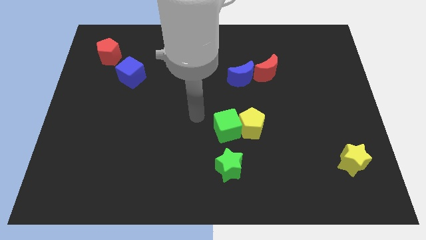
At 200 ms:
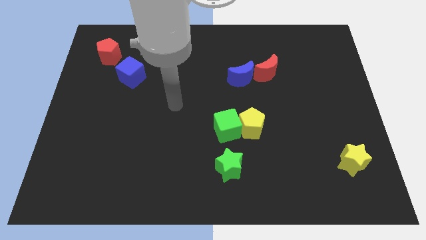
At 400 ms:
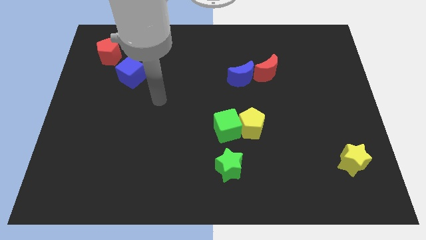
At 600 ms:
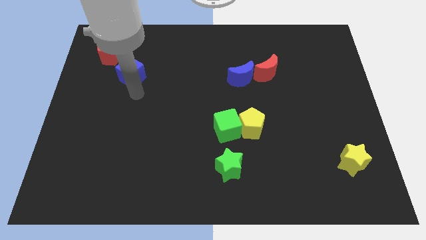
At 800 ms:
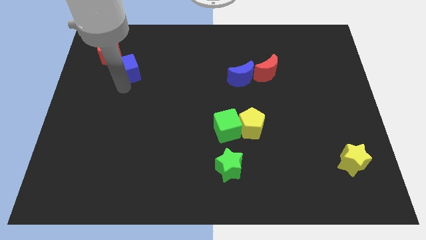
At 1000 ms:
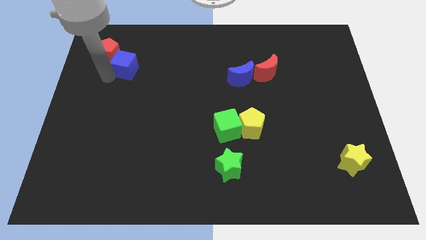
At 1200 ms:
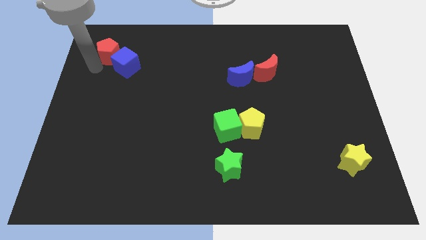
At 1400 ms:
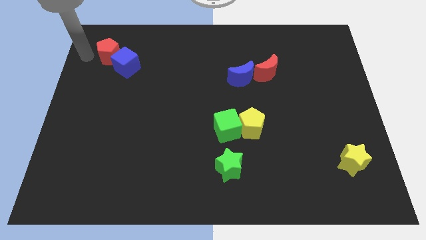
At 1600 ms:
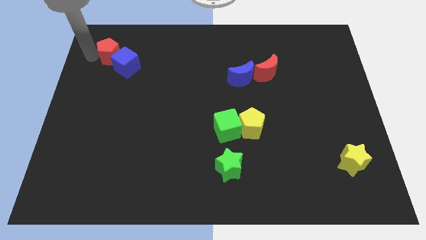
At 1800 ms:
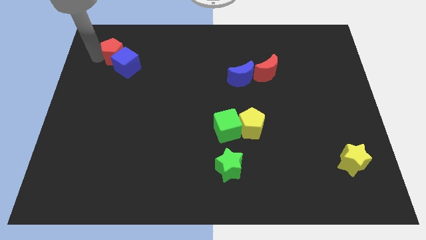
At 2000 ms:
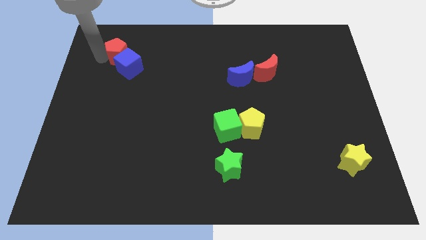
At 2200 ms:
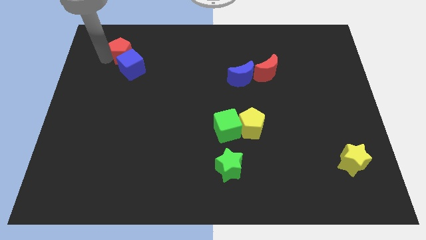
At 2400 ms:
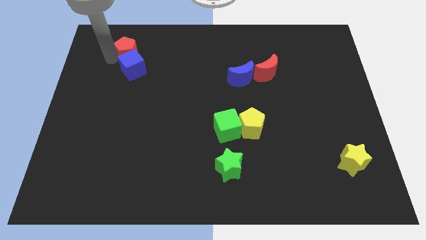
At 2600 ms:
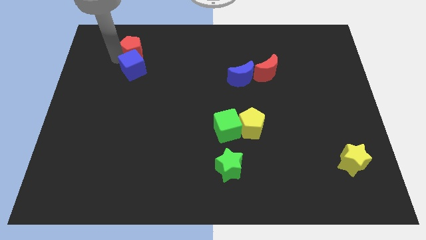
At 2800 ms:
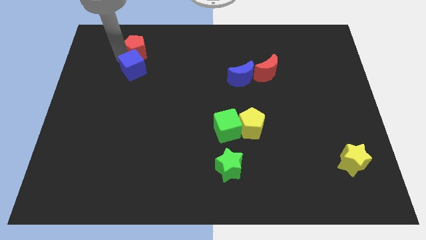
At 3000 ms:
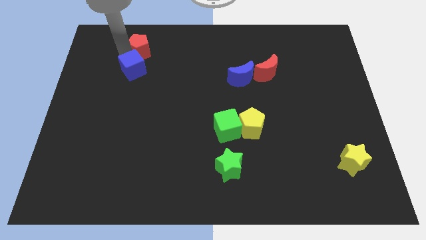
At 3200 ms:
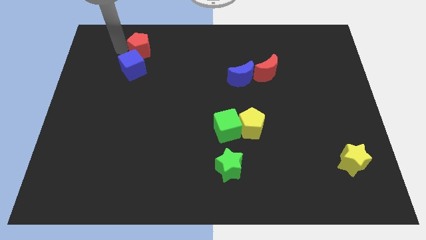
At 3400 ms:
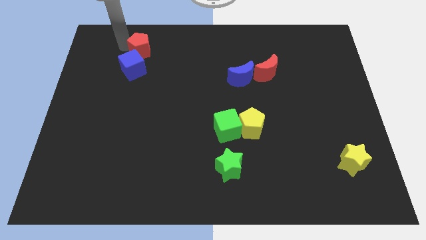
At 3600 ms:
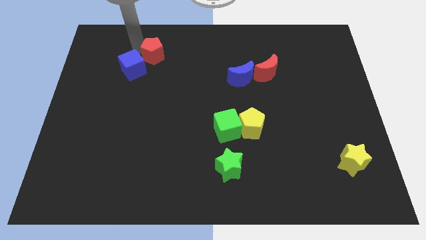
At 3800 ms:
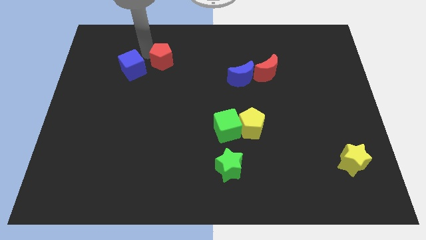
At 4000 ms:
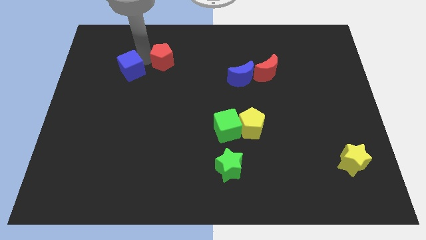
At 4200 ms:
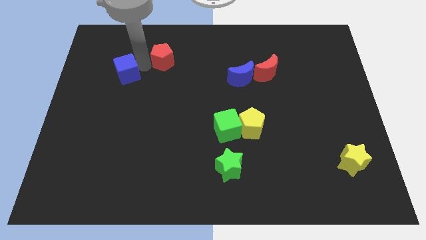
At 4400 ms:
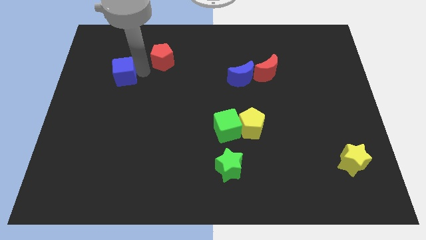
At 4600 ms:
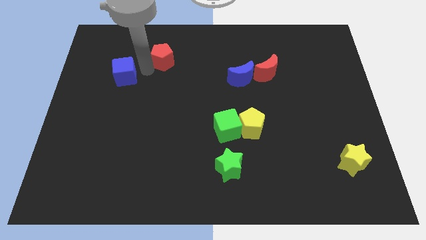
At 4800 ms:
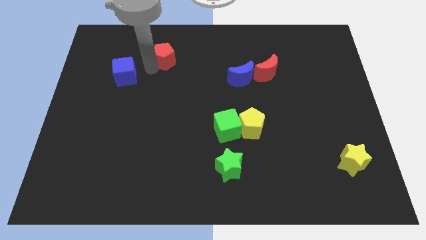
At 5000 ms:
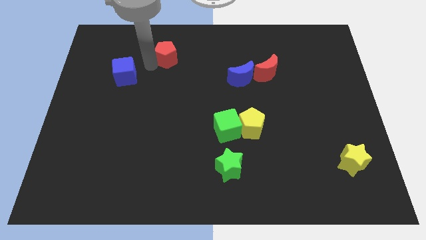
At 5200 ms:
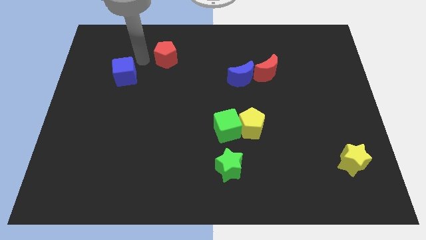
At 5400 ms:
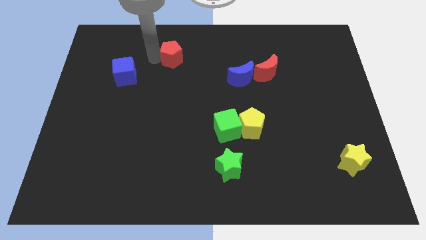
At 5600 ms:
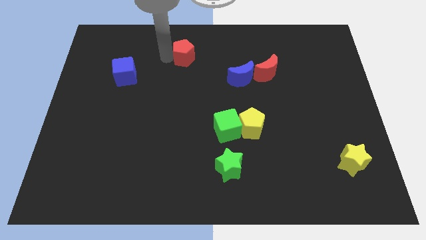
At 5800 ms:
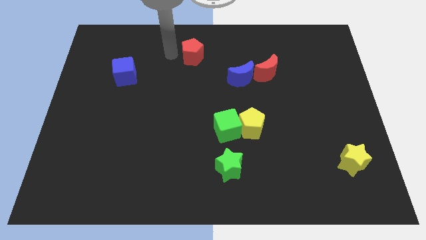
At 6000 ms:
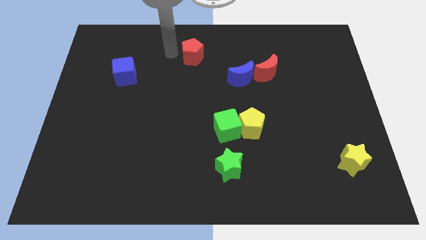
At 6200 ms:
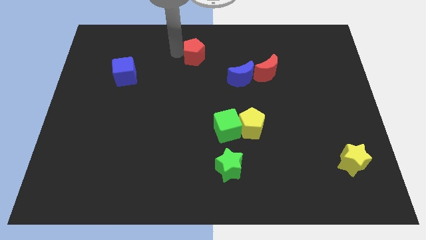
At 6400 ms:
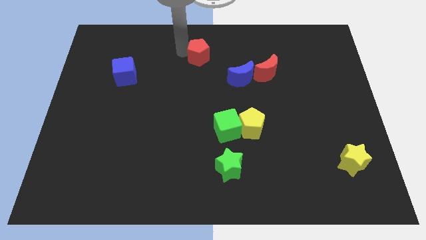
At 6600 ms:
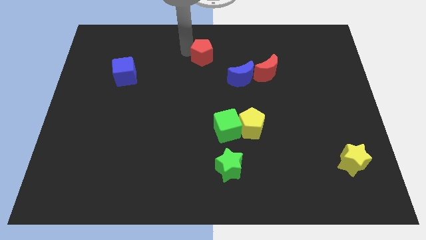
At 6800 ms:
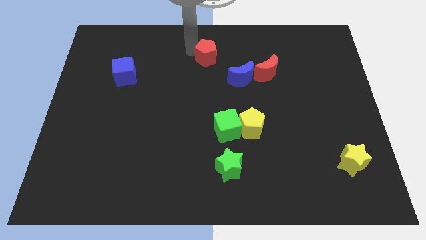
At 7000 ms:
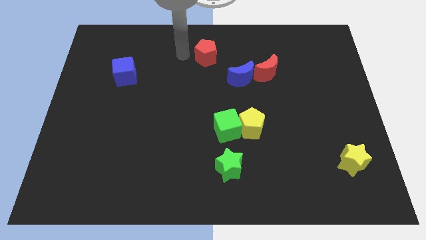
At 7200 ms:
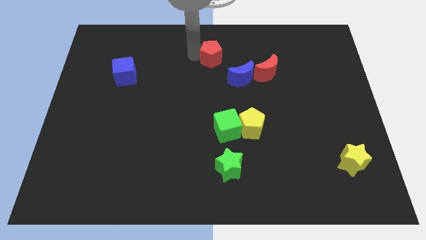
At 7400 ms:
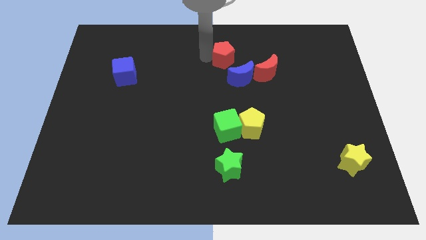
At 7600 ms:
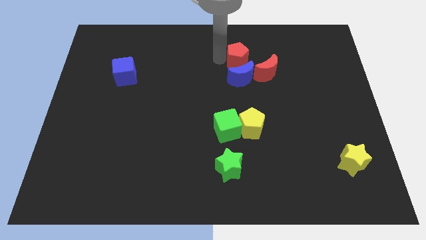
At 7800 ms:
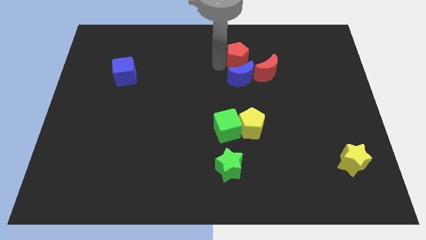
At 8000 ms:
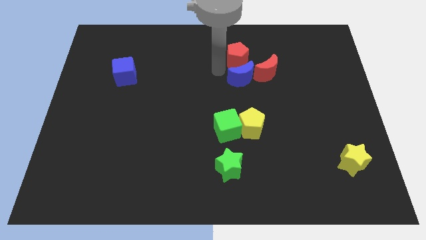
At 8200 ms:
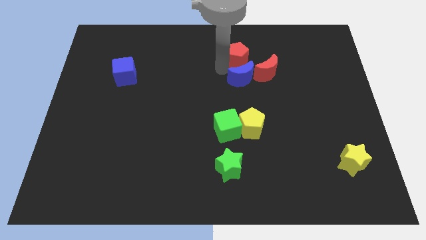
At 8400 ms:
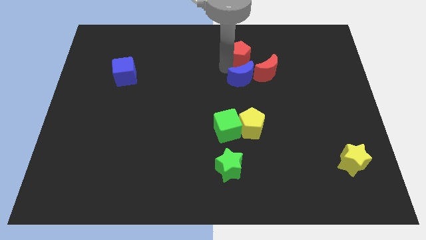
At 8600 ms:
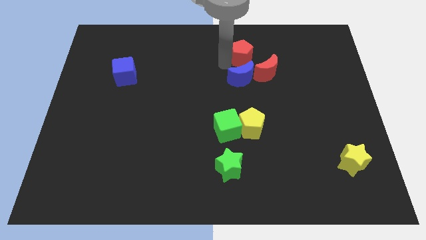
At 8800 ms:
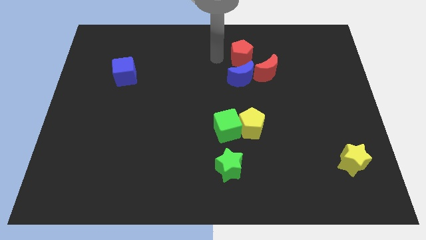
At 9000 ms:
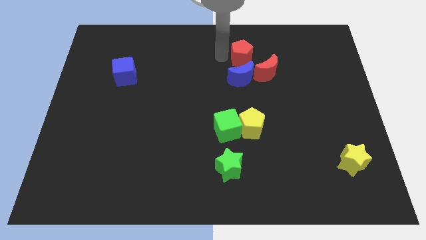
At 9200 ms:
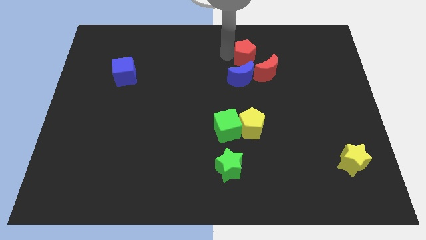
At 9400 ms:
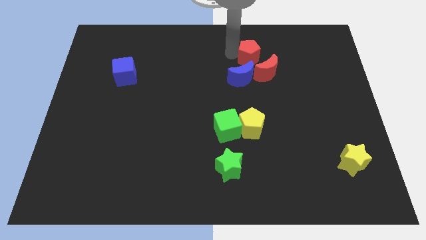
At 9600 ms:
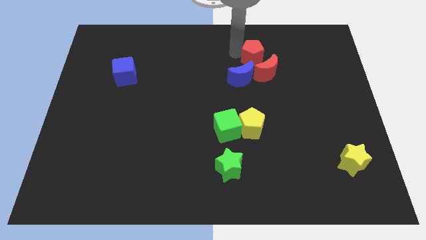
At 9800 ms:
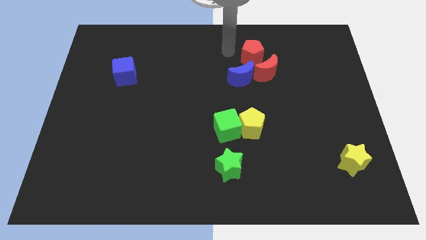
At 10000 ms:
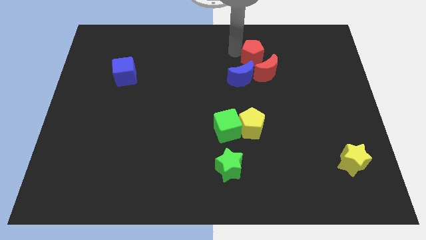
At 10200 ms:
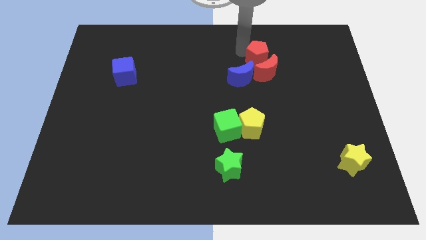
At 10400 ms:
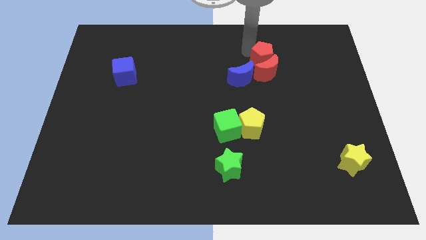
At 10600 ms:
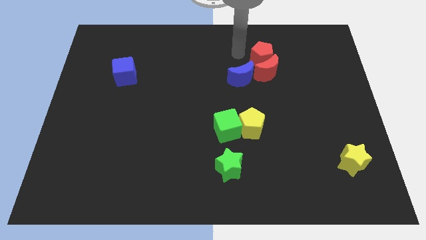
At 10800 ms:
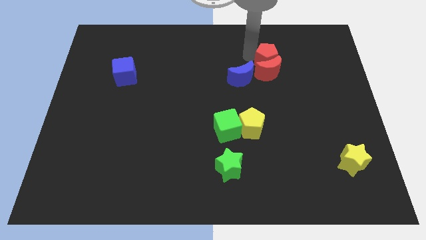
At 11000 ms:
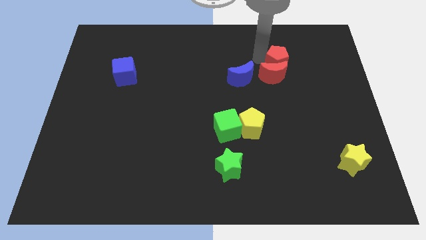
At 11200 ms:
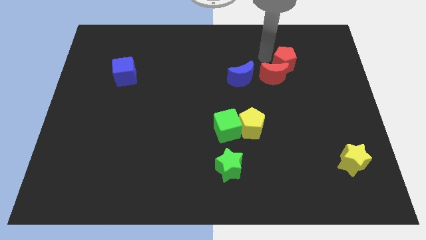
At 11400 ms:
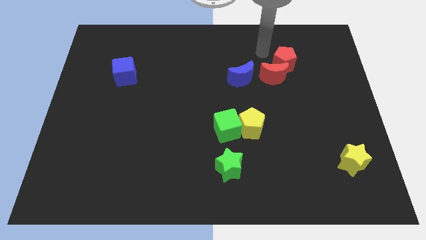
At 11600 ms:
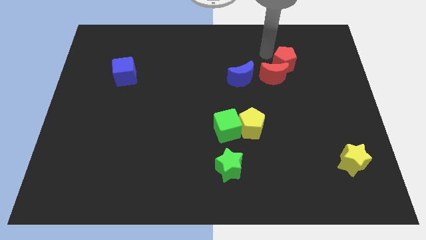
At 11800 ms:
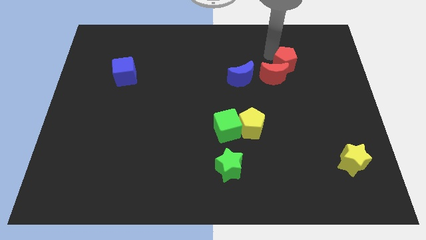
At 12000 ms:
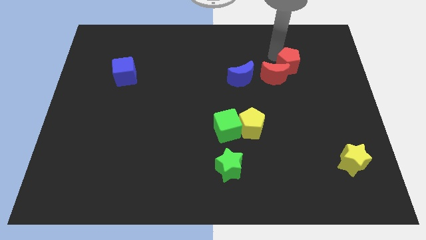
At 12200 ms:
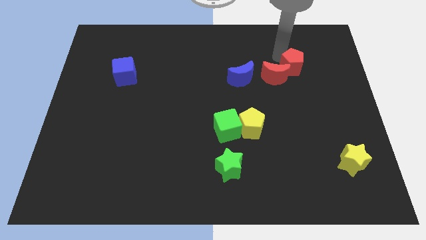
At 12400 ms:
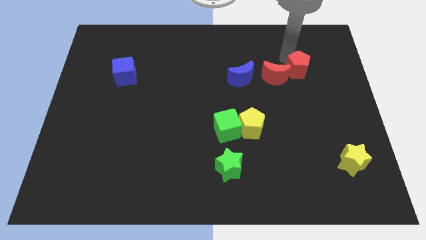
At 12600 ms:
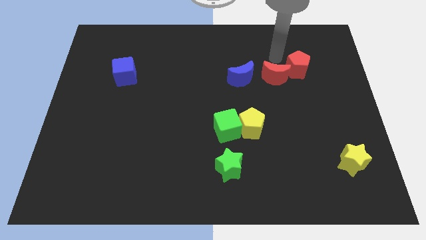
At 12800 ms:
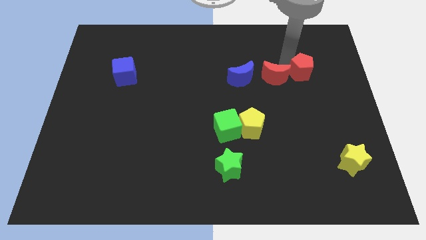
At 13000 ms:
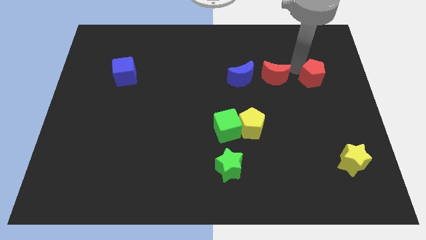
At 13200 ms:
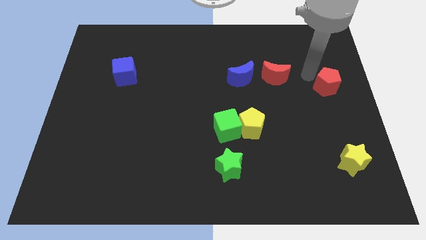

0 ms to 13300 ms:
put the red pentagon to the right side
